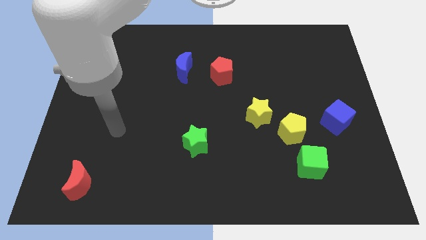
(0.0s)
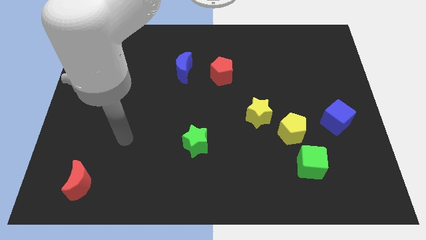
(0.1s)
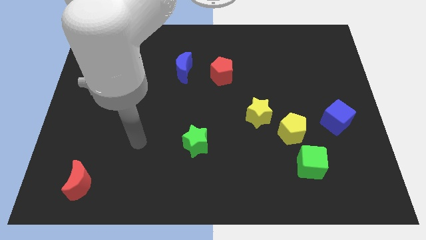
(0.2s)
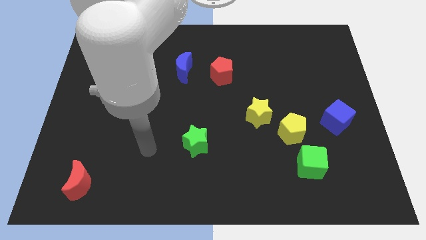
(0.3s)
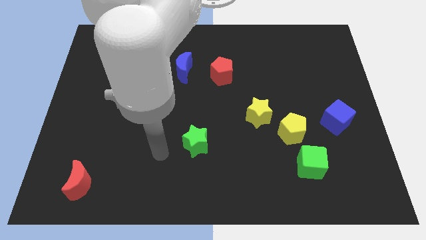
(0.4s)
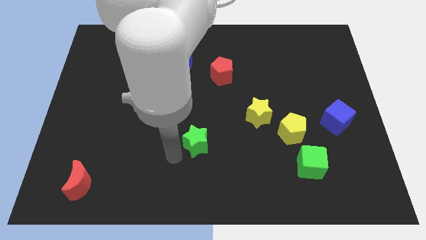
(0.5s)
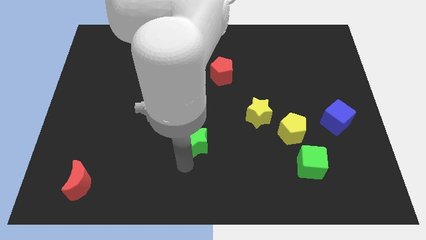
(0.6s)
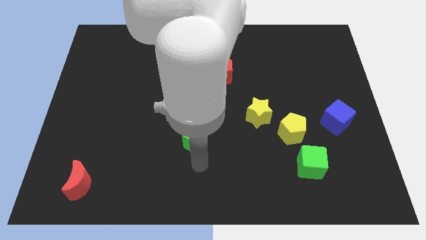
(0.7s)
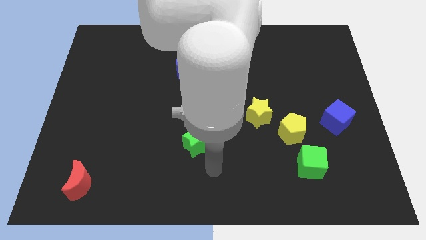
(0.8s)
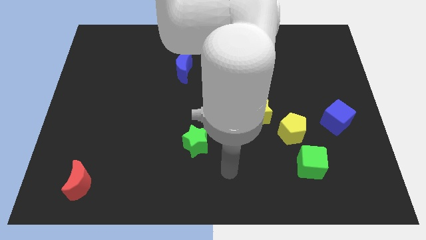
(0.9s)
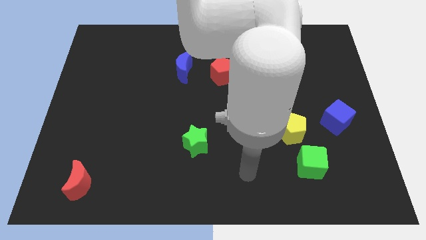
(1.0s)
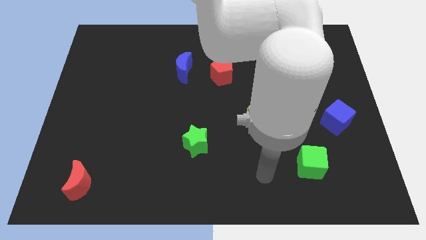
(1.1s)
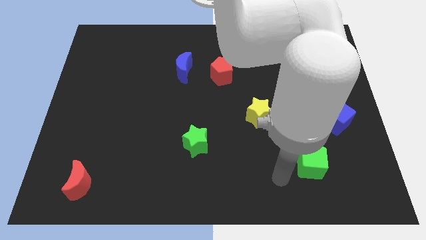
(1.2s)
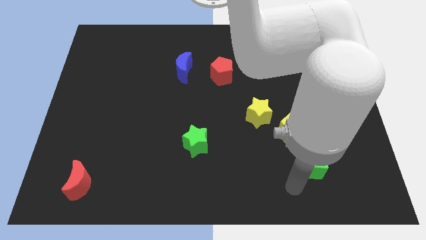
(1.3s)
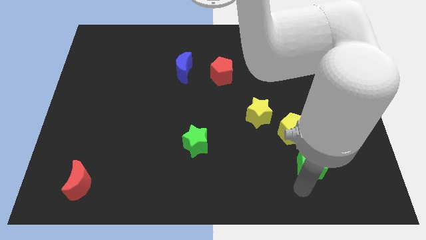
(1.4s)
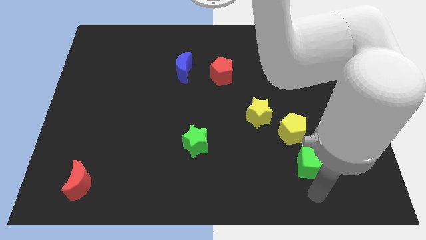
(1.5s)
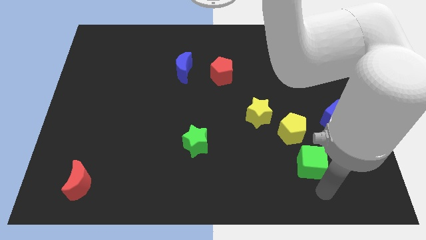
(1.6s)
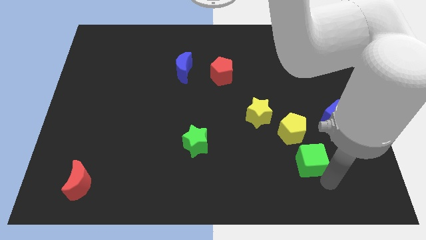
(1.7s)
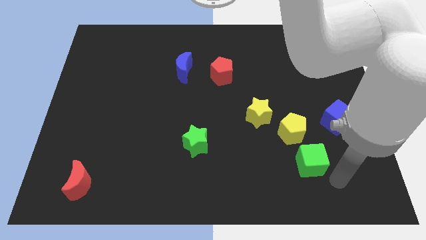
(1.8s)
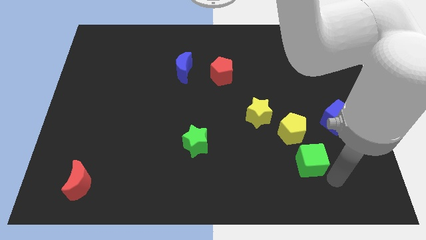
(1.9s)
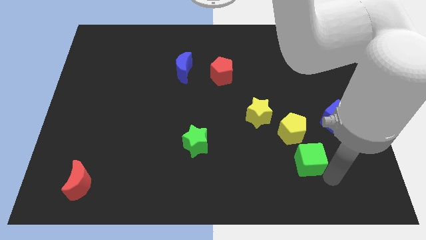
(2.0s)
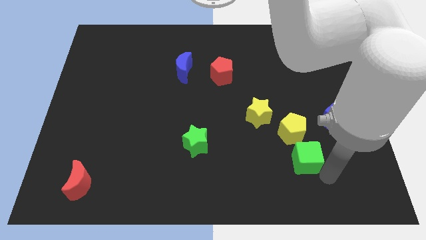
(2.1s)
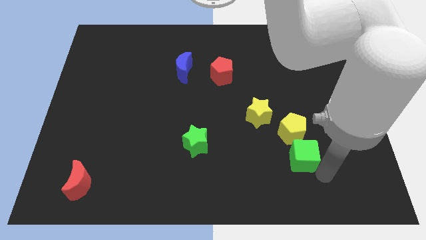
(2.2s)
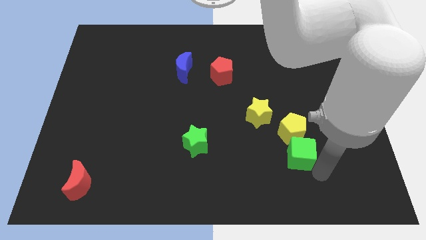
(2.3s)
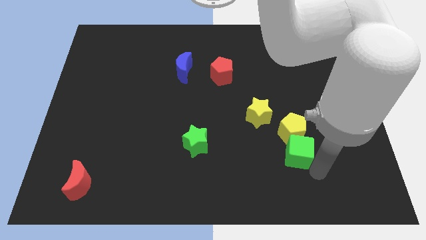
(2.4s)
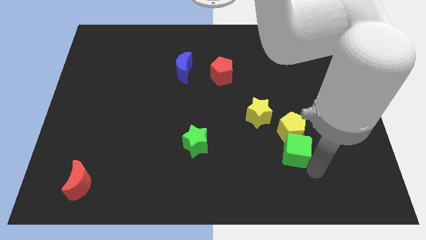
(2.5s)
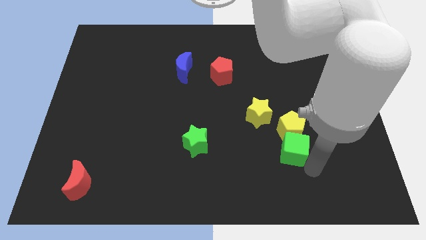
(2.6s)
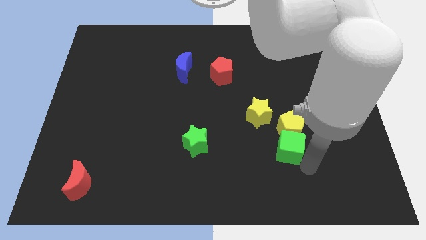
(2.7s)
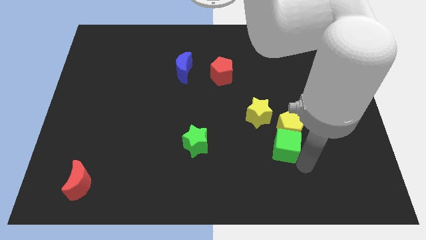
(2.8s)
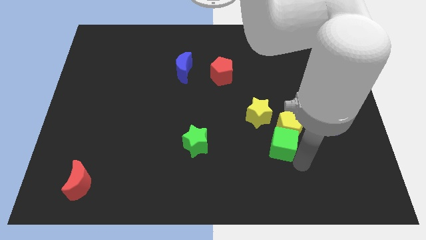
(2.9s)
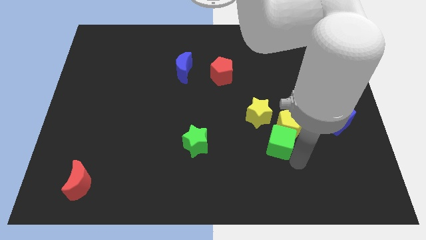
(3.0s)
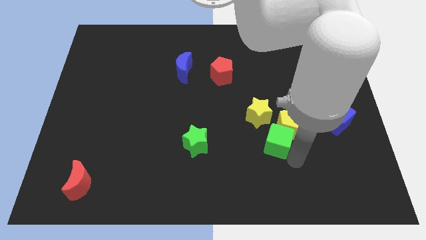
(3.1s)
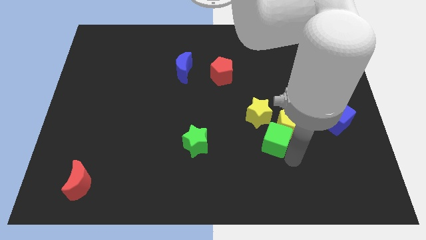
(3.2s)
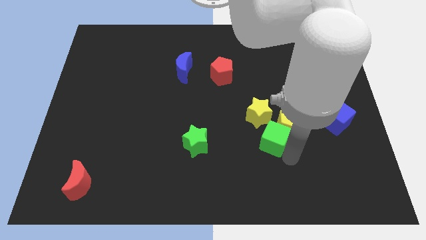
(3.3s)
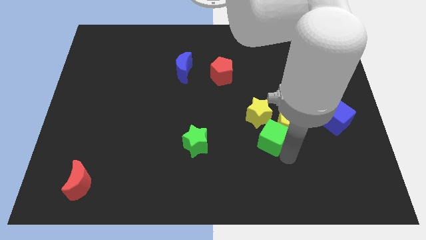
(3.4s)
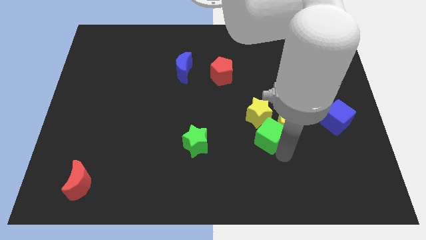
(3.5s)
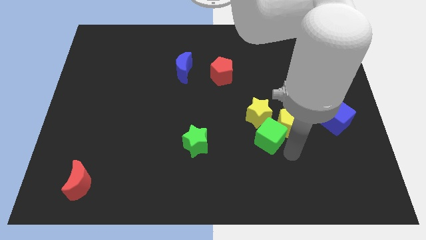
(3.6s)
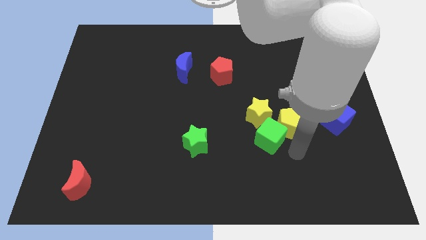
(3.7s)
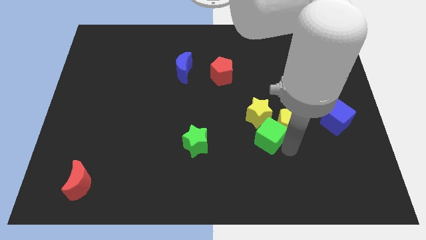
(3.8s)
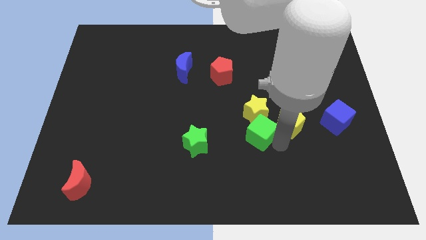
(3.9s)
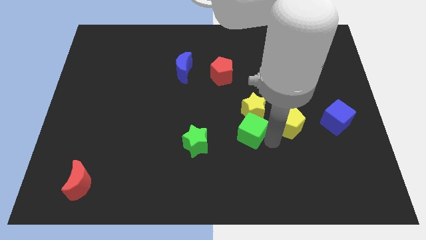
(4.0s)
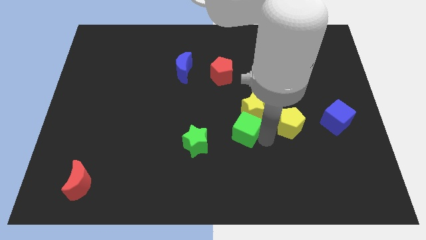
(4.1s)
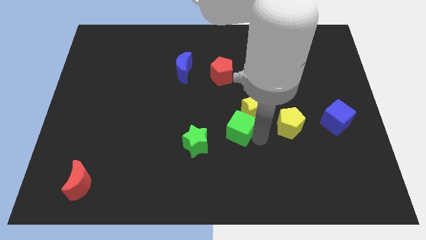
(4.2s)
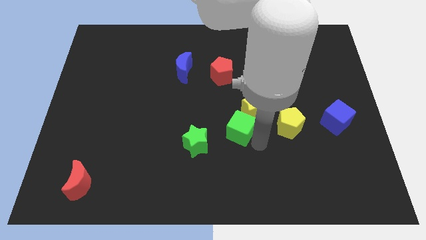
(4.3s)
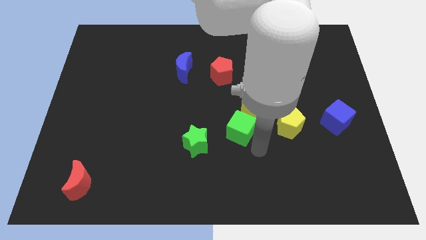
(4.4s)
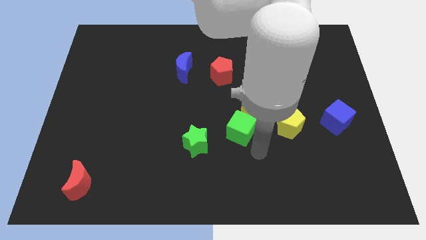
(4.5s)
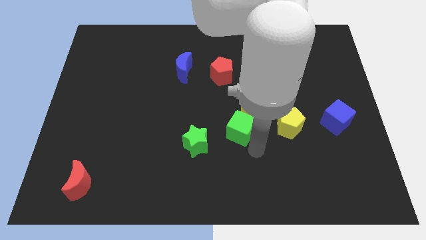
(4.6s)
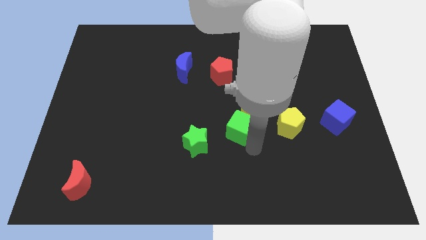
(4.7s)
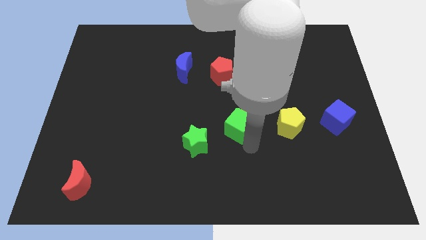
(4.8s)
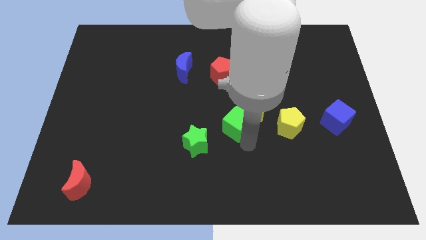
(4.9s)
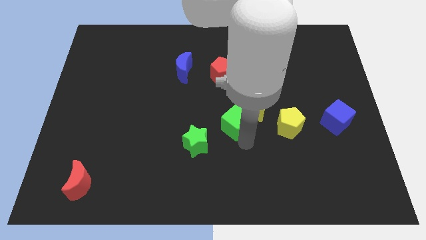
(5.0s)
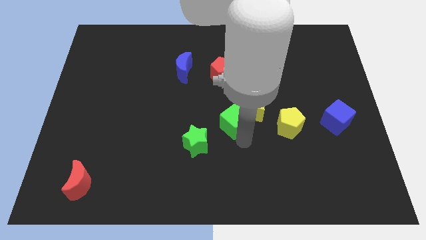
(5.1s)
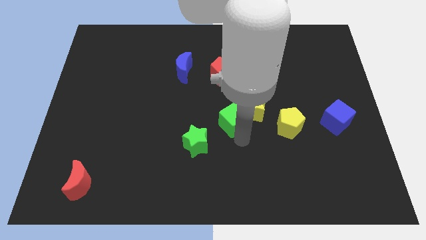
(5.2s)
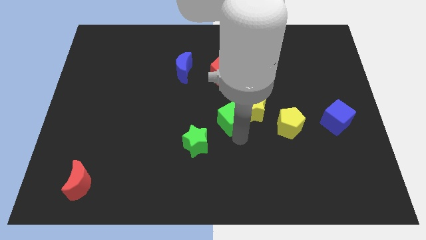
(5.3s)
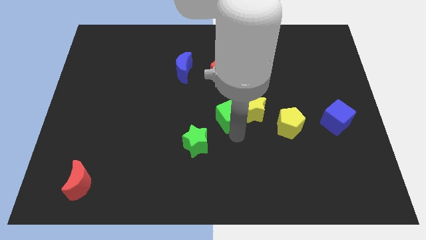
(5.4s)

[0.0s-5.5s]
move the green cube upwards and to the left

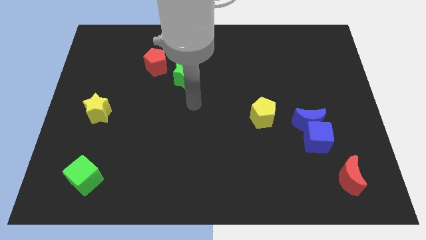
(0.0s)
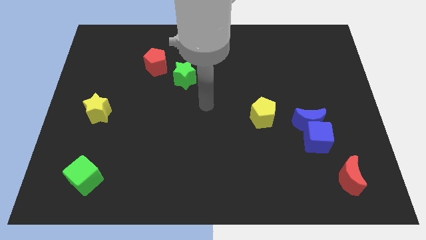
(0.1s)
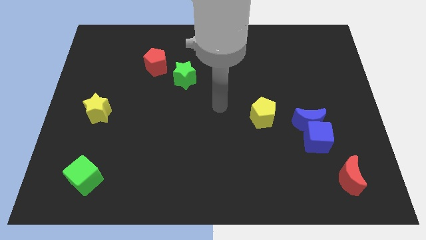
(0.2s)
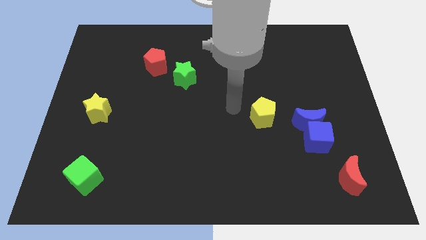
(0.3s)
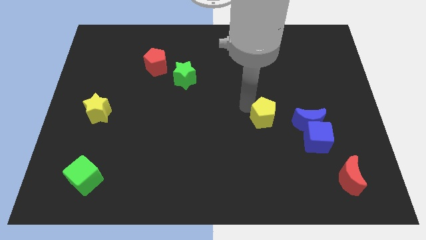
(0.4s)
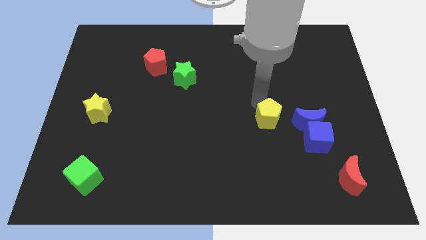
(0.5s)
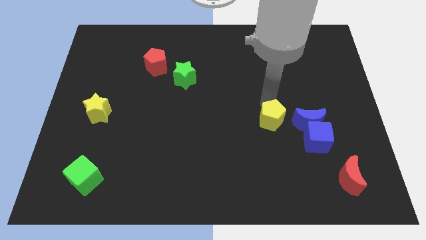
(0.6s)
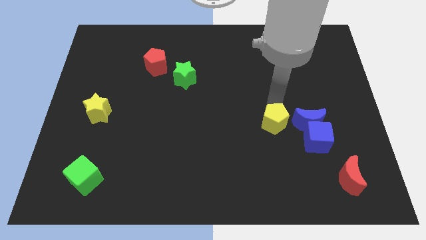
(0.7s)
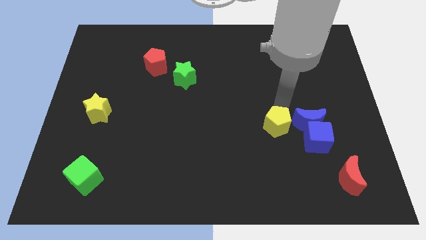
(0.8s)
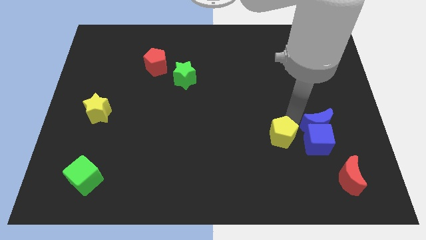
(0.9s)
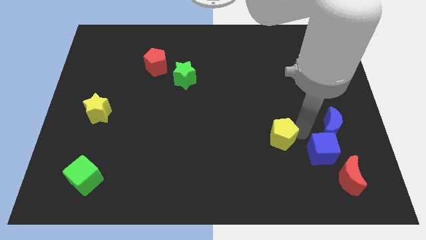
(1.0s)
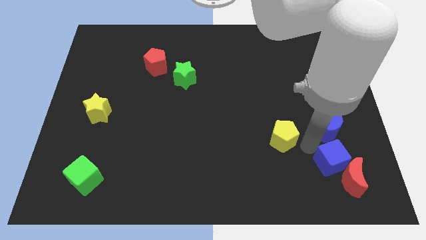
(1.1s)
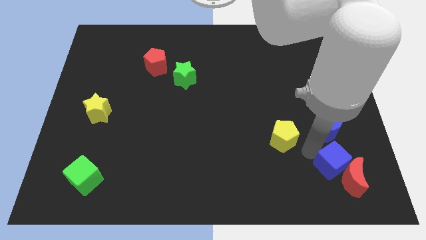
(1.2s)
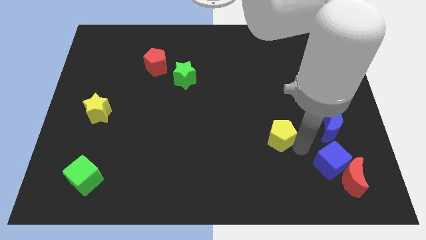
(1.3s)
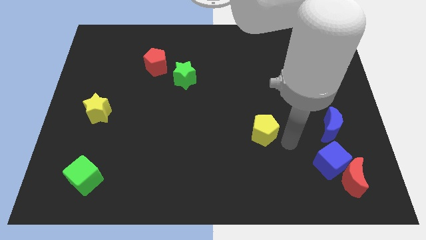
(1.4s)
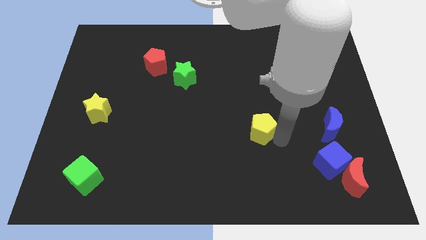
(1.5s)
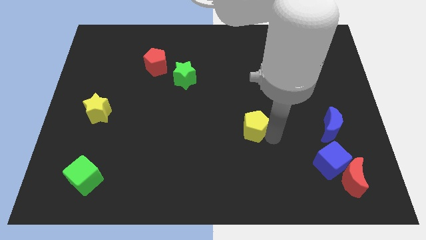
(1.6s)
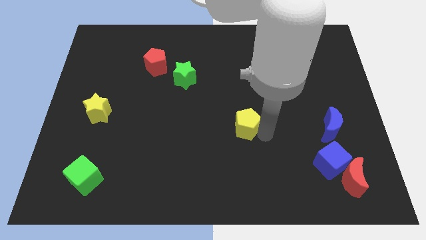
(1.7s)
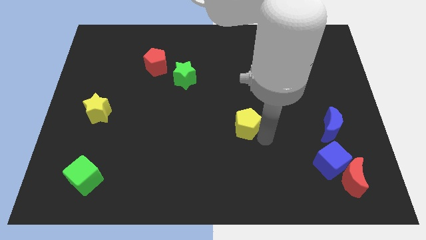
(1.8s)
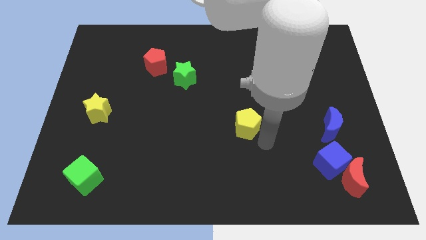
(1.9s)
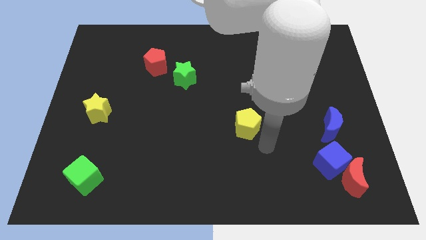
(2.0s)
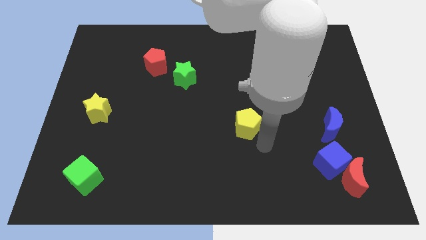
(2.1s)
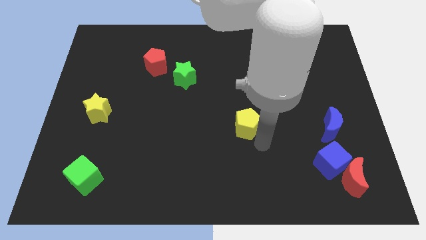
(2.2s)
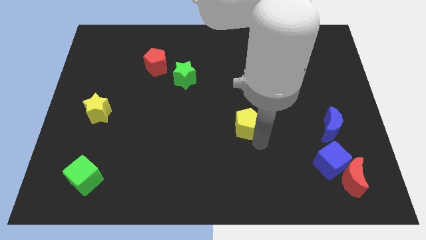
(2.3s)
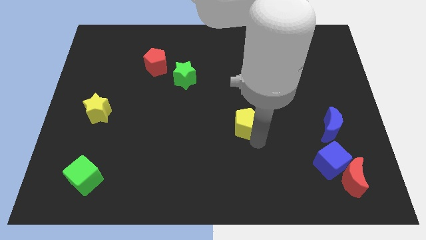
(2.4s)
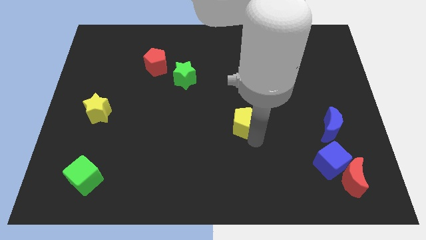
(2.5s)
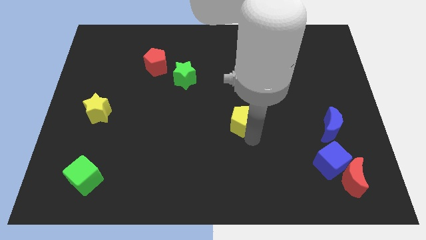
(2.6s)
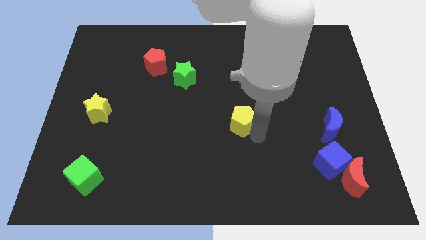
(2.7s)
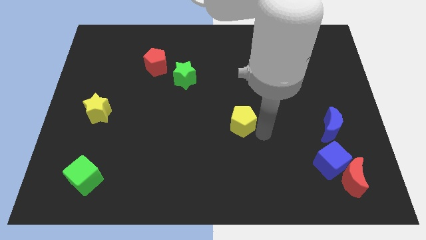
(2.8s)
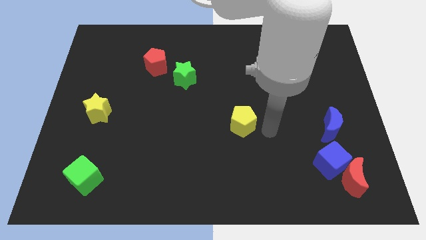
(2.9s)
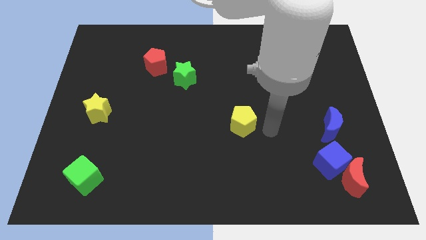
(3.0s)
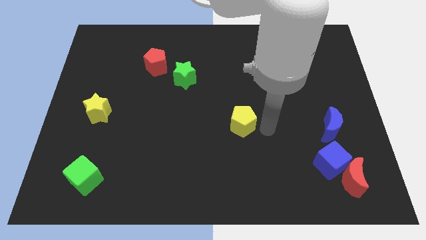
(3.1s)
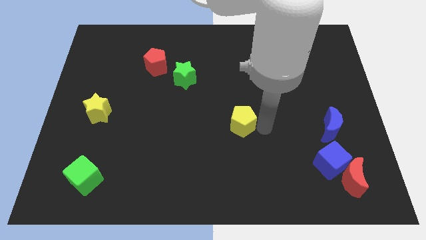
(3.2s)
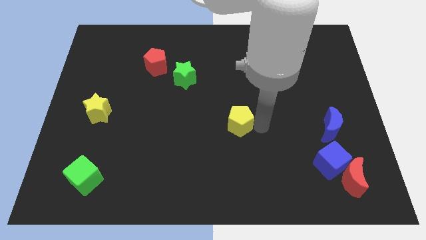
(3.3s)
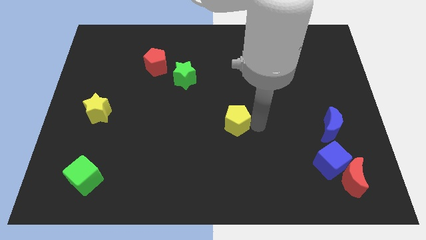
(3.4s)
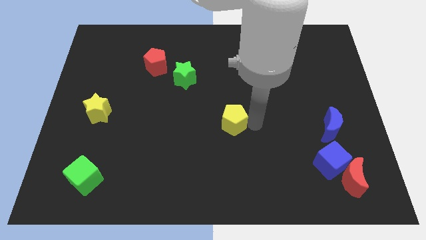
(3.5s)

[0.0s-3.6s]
slightly slide the yellow pentagon left
